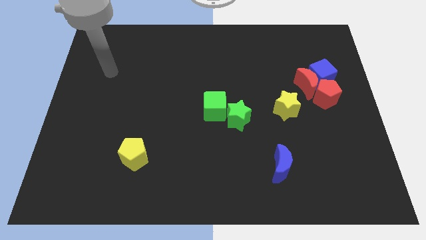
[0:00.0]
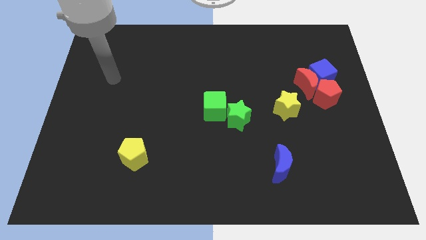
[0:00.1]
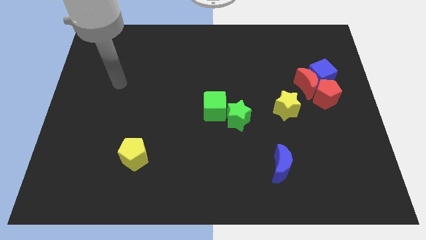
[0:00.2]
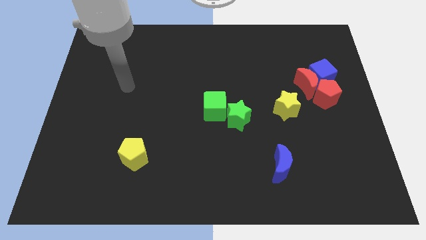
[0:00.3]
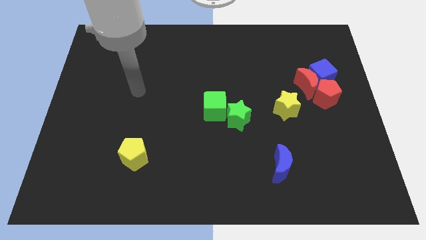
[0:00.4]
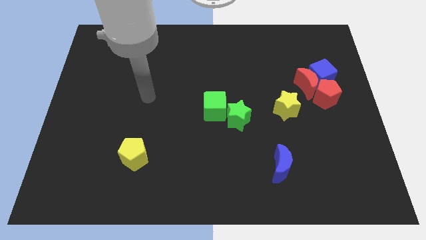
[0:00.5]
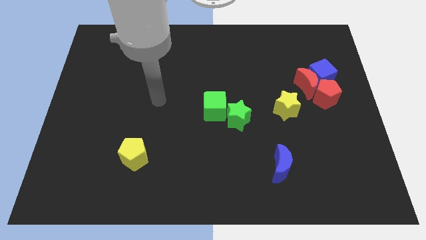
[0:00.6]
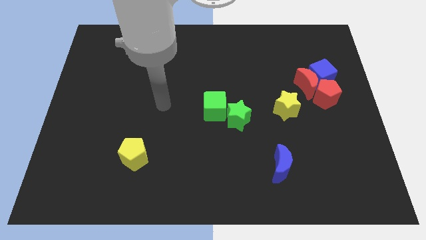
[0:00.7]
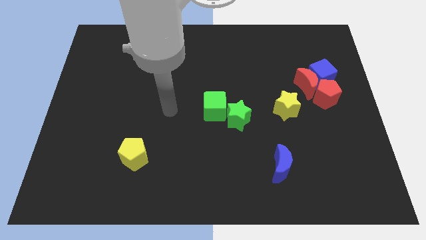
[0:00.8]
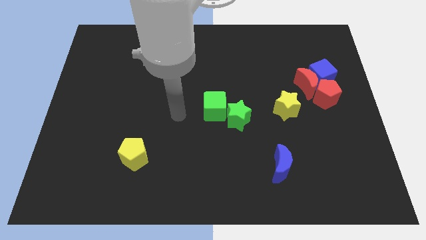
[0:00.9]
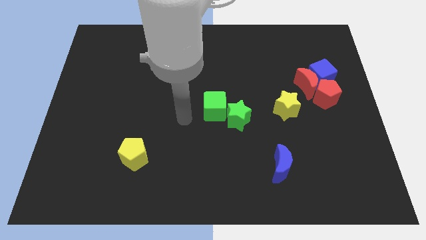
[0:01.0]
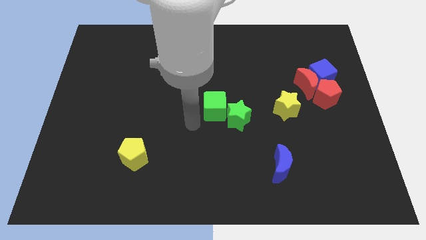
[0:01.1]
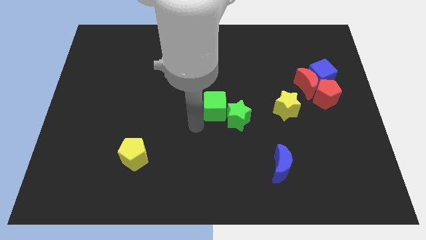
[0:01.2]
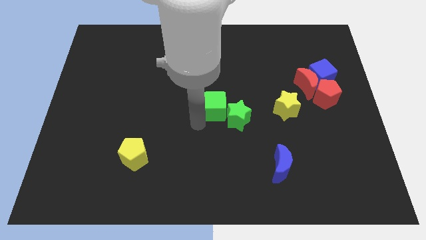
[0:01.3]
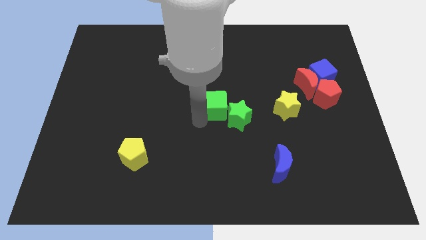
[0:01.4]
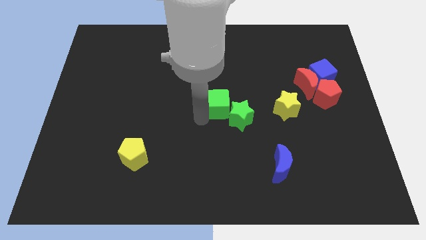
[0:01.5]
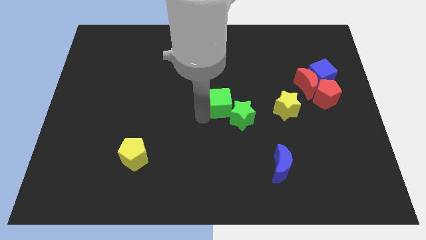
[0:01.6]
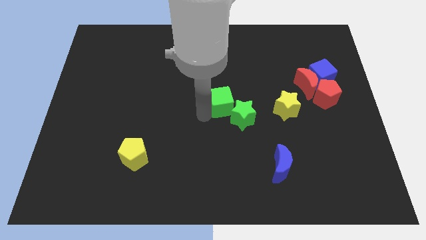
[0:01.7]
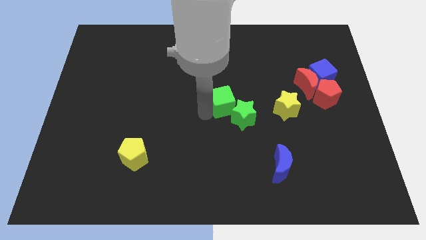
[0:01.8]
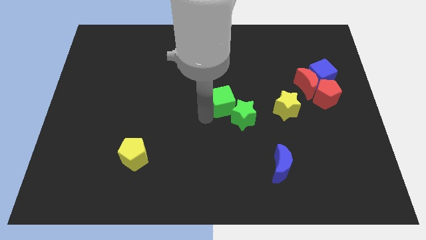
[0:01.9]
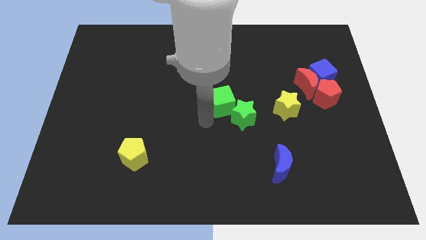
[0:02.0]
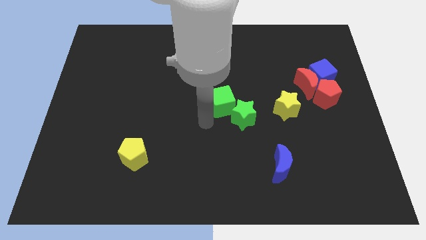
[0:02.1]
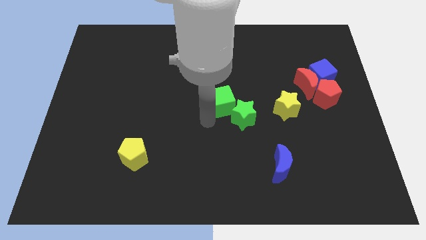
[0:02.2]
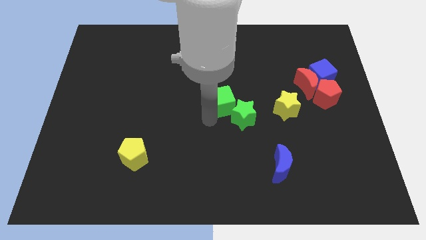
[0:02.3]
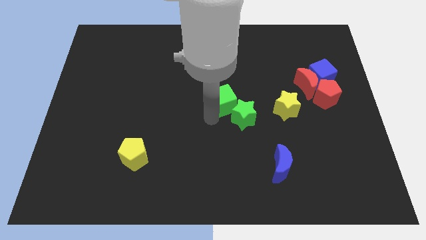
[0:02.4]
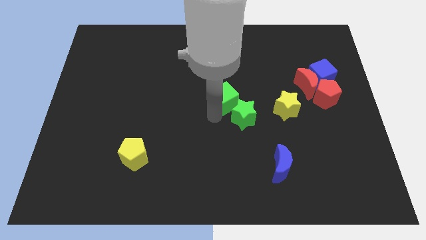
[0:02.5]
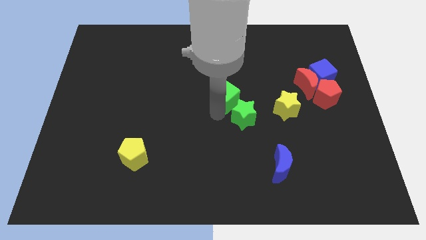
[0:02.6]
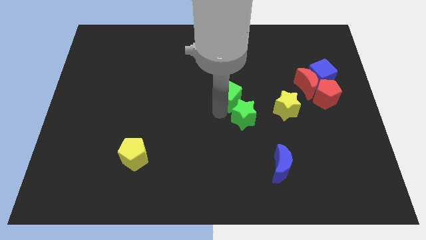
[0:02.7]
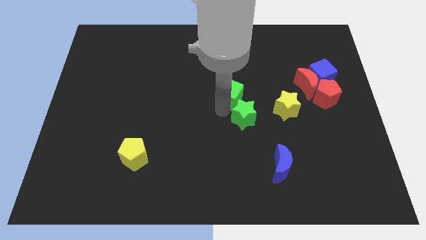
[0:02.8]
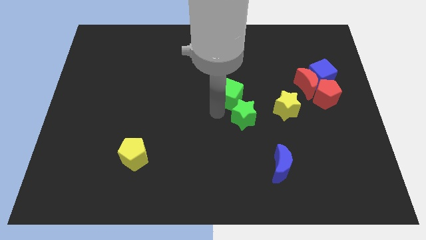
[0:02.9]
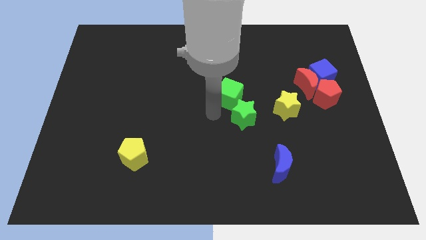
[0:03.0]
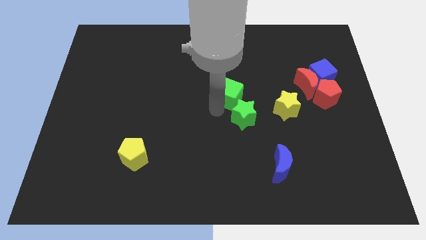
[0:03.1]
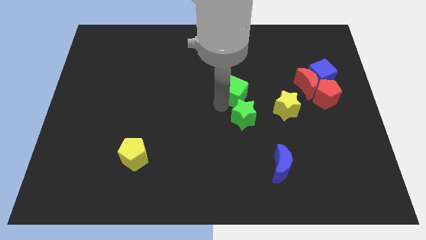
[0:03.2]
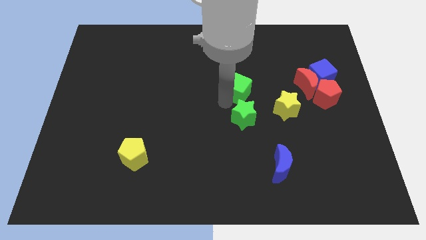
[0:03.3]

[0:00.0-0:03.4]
slightly move the green cube diagonally upwards and right

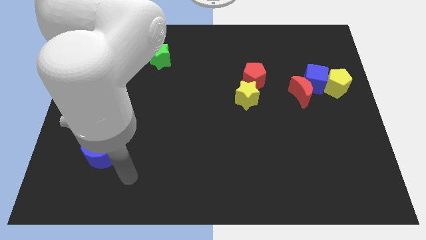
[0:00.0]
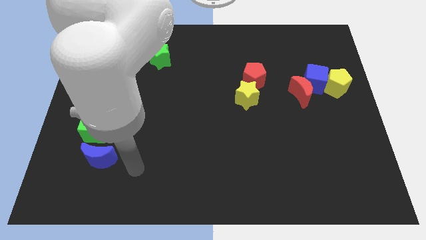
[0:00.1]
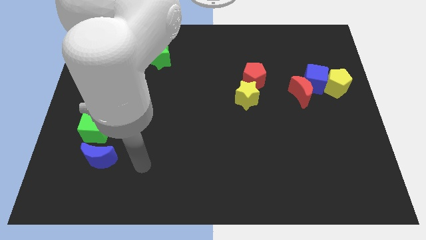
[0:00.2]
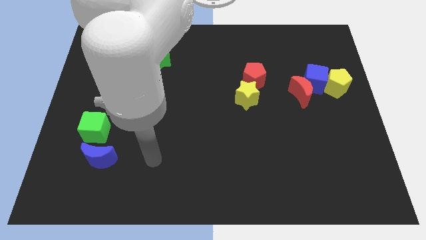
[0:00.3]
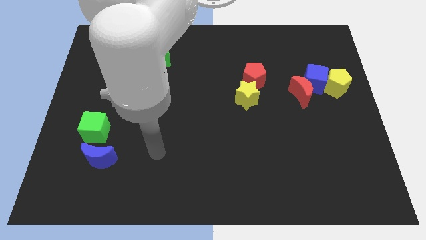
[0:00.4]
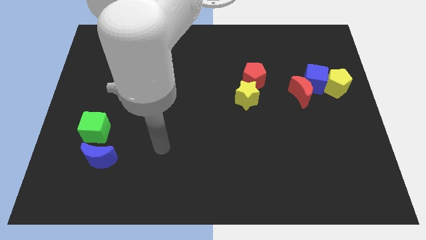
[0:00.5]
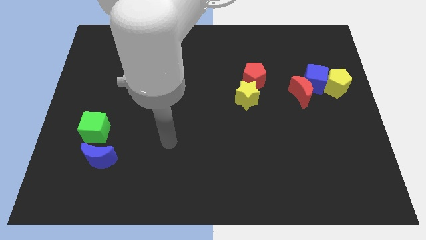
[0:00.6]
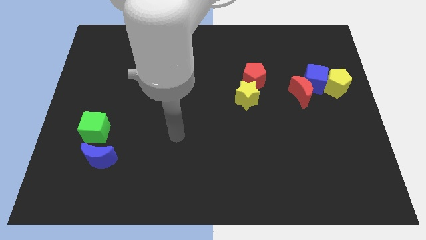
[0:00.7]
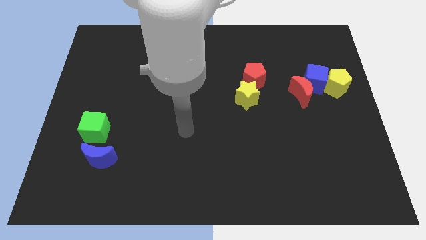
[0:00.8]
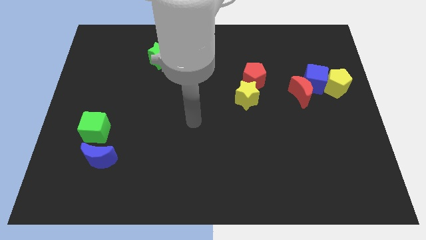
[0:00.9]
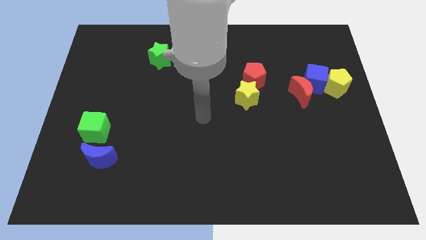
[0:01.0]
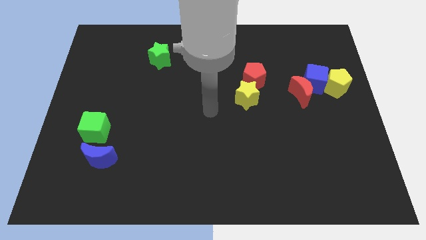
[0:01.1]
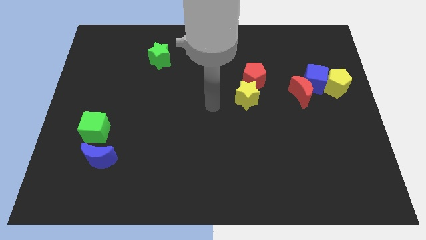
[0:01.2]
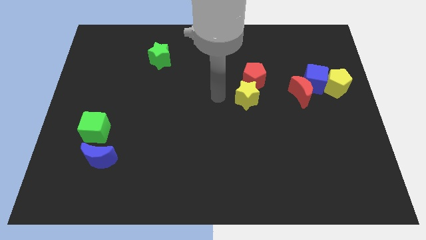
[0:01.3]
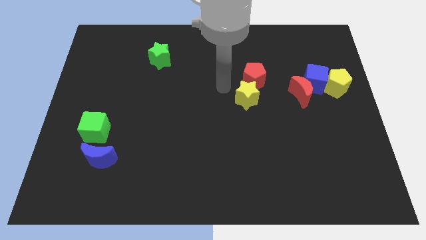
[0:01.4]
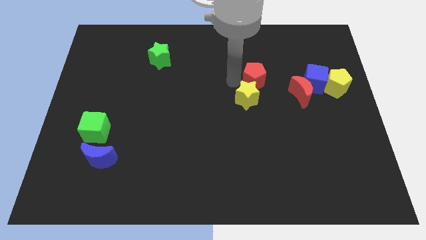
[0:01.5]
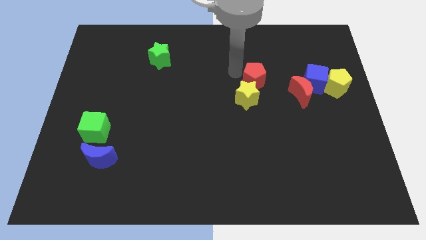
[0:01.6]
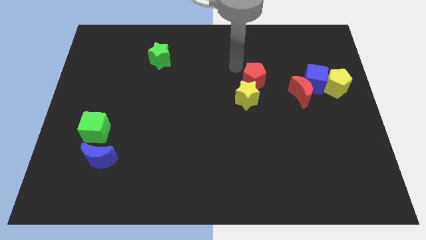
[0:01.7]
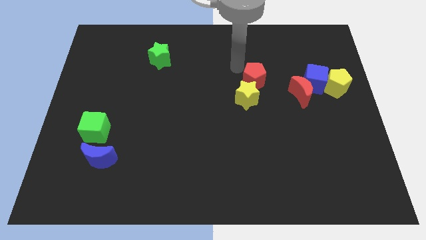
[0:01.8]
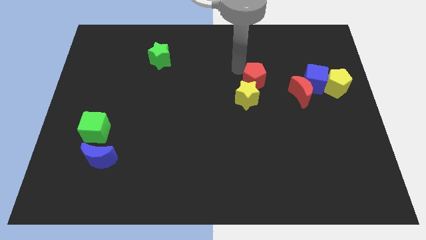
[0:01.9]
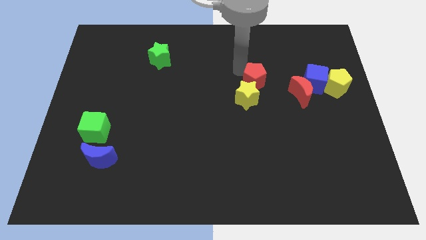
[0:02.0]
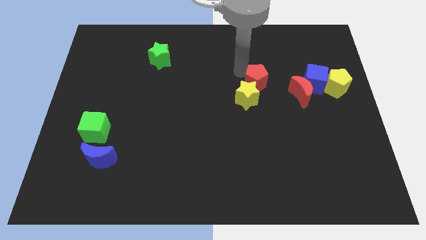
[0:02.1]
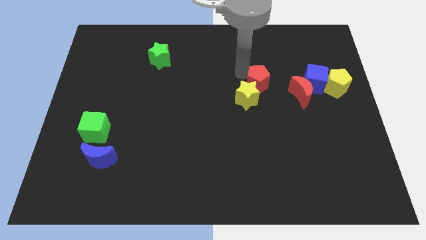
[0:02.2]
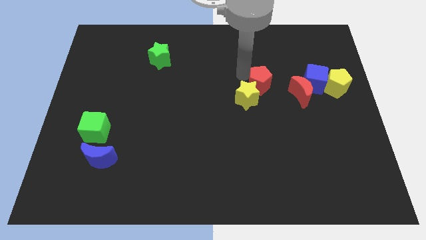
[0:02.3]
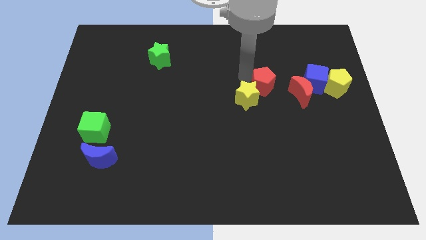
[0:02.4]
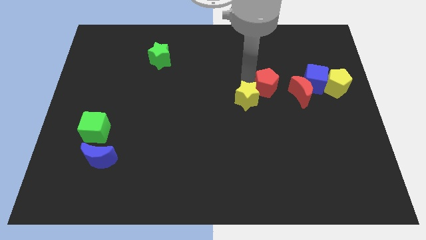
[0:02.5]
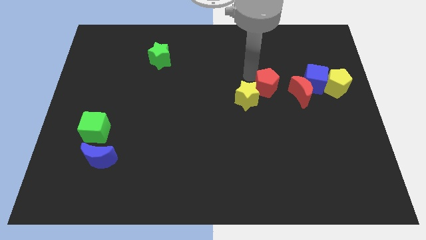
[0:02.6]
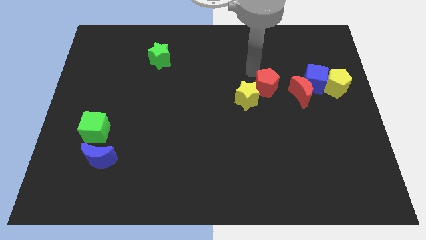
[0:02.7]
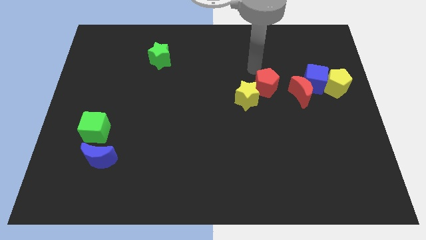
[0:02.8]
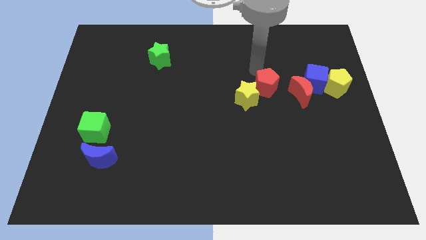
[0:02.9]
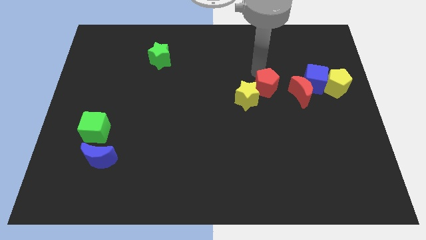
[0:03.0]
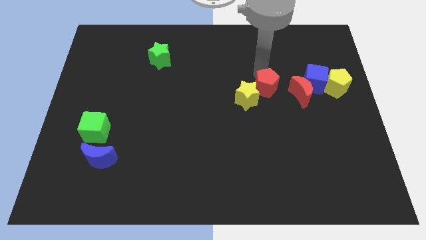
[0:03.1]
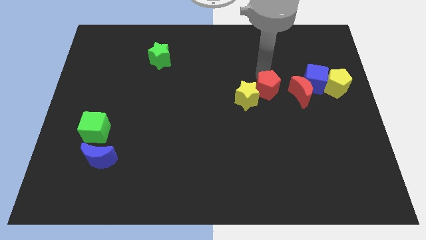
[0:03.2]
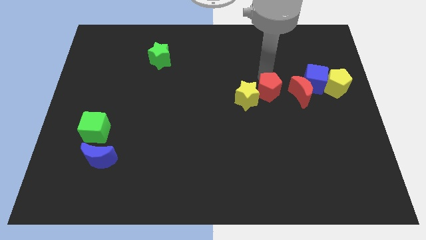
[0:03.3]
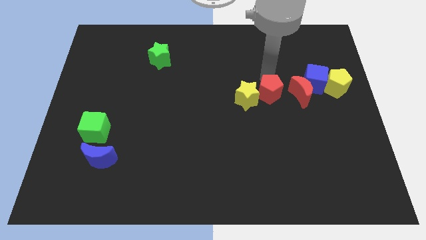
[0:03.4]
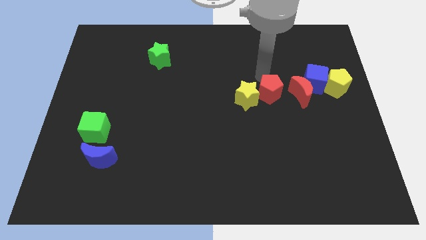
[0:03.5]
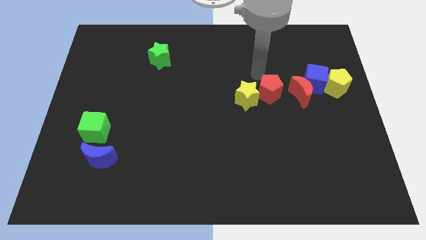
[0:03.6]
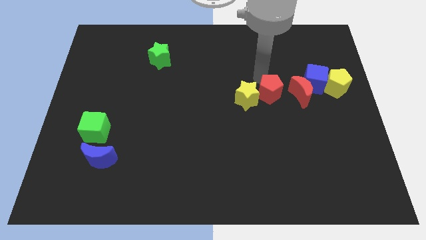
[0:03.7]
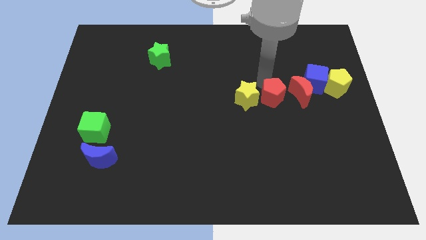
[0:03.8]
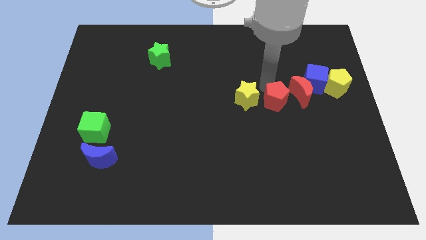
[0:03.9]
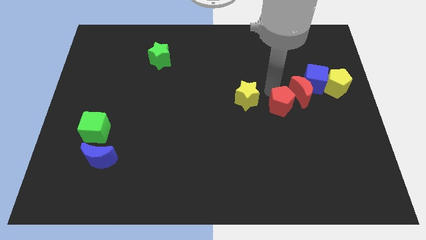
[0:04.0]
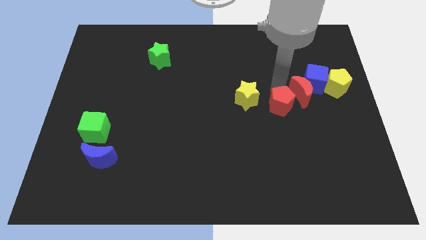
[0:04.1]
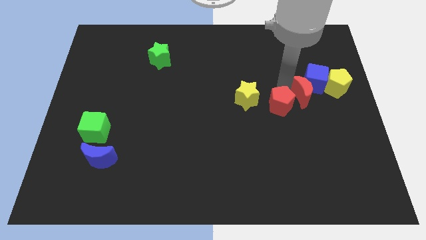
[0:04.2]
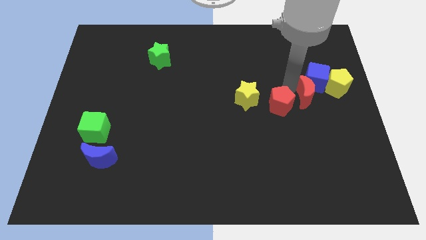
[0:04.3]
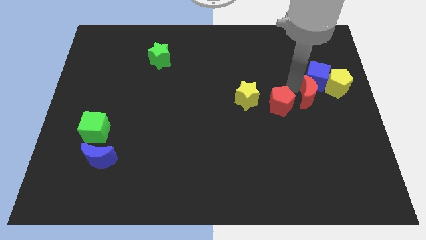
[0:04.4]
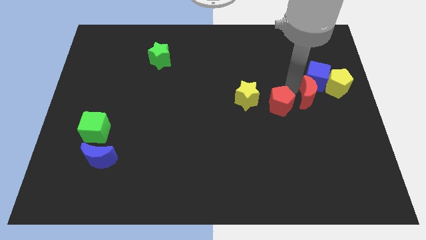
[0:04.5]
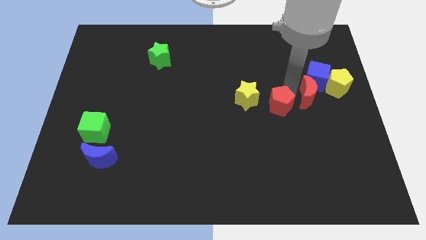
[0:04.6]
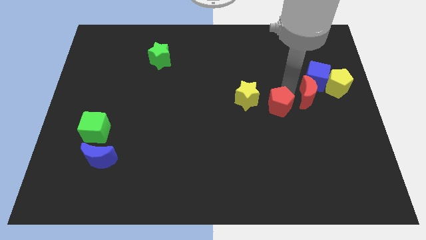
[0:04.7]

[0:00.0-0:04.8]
slide the red pentagon downwards a little

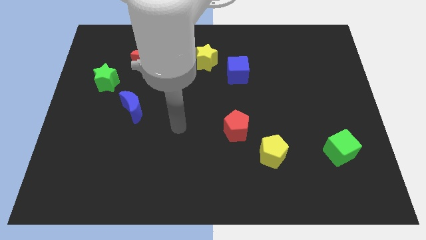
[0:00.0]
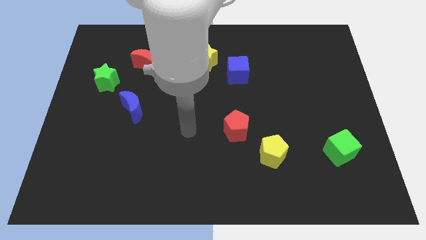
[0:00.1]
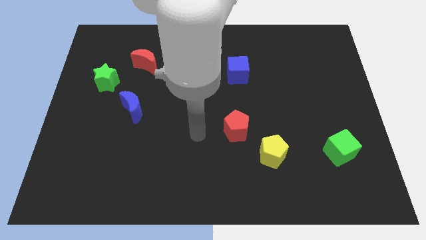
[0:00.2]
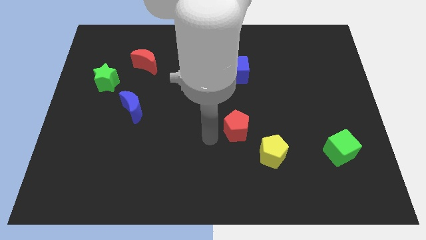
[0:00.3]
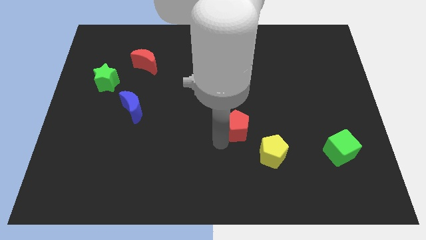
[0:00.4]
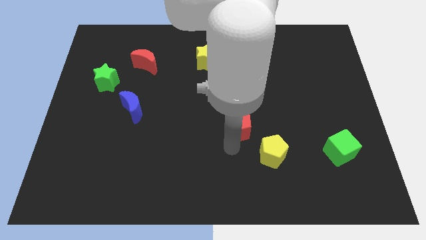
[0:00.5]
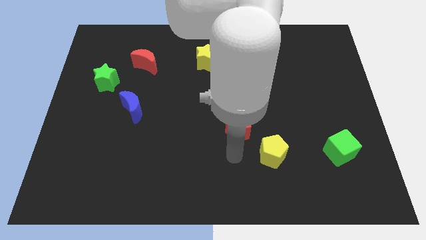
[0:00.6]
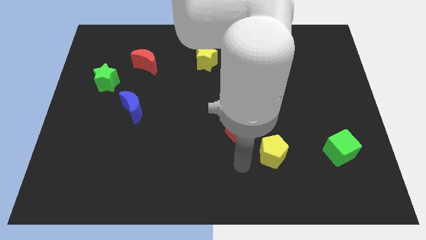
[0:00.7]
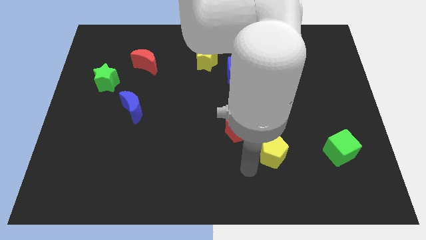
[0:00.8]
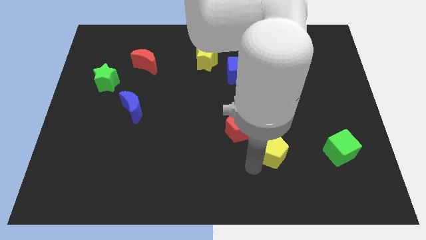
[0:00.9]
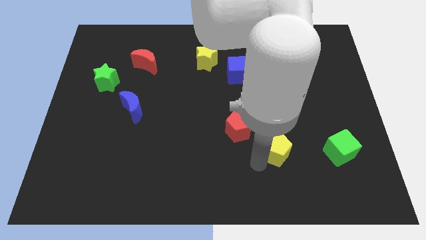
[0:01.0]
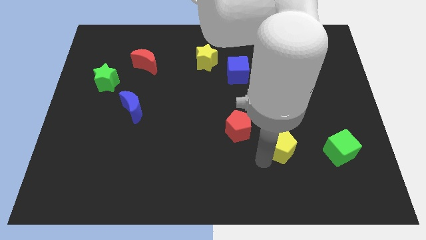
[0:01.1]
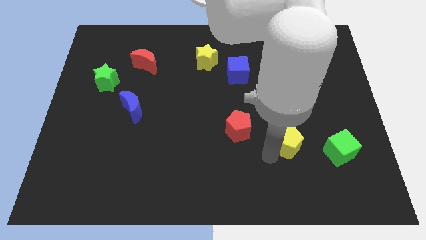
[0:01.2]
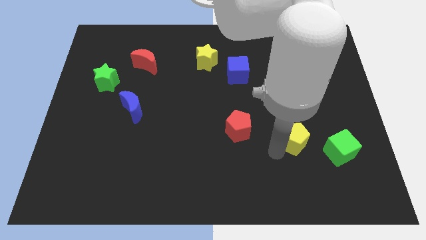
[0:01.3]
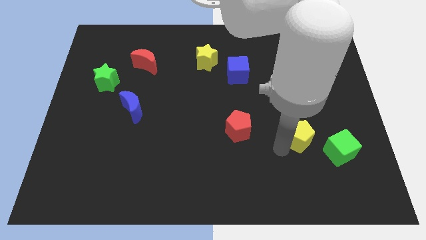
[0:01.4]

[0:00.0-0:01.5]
slightly slide the yellow pentagon up and then right
